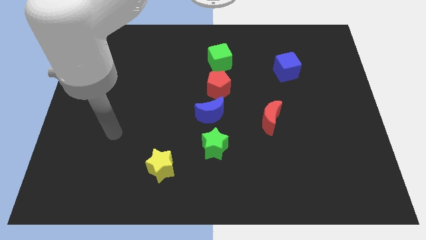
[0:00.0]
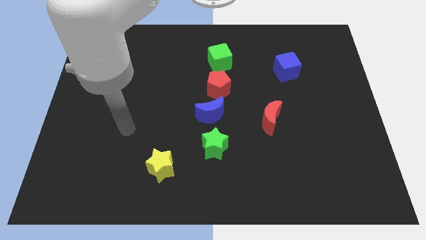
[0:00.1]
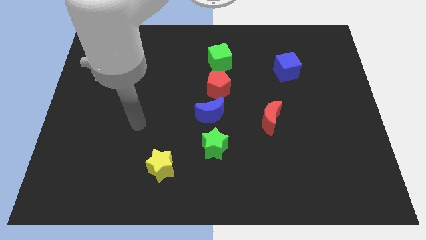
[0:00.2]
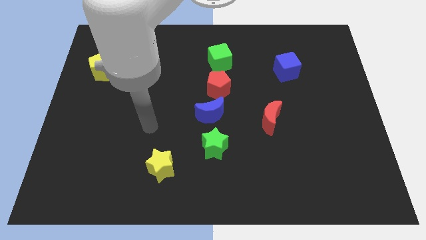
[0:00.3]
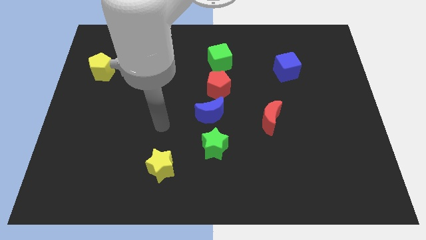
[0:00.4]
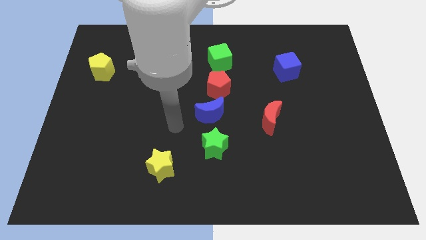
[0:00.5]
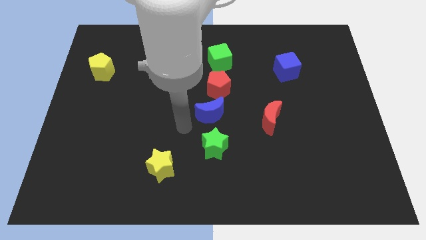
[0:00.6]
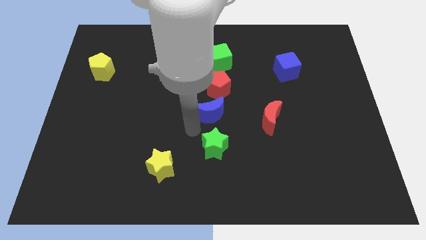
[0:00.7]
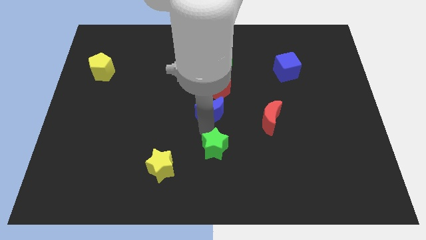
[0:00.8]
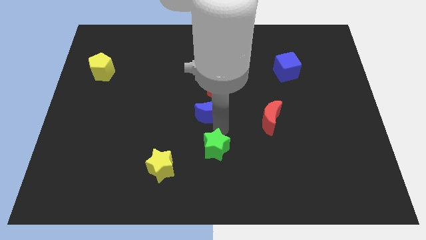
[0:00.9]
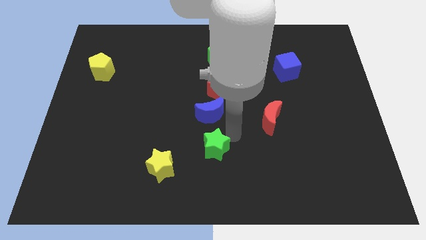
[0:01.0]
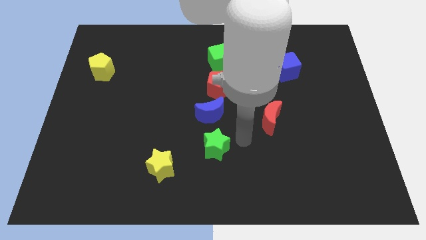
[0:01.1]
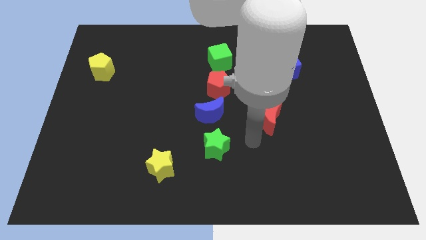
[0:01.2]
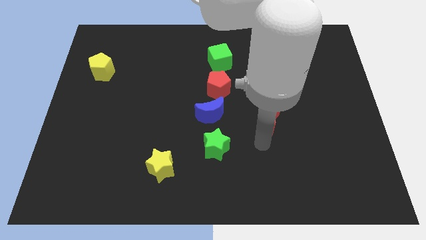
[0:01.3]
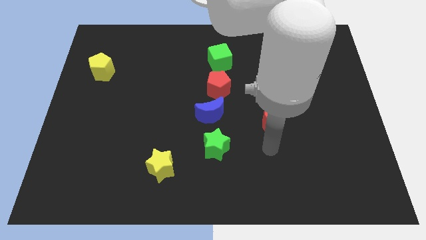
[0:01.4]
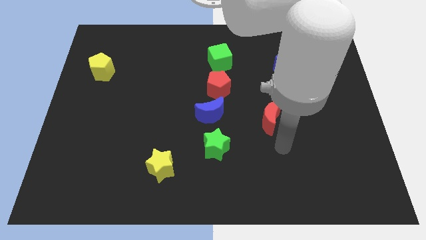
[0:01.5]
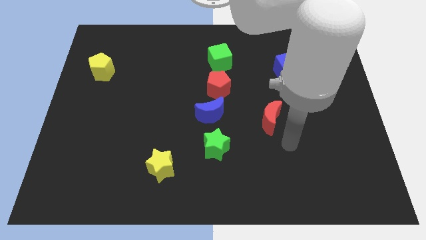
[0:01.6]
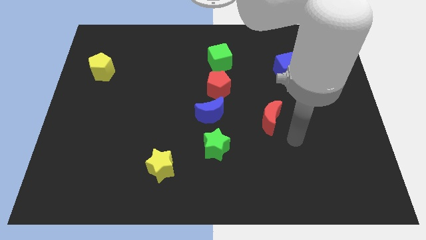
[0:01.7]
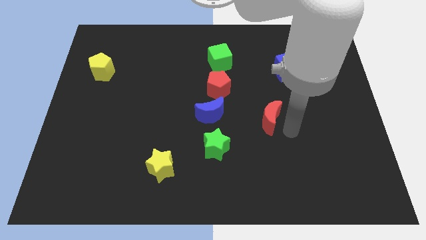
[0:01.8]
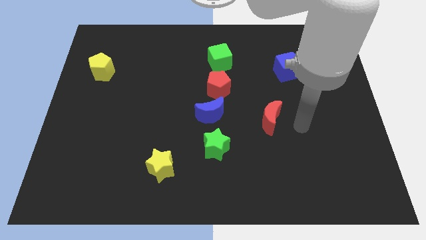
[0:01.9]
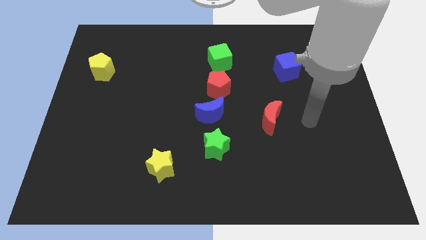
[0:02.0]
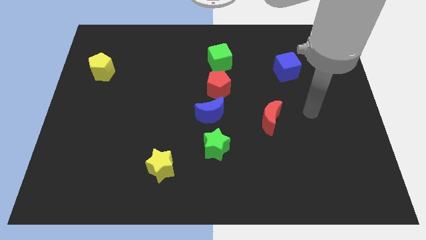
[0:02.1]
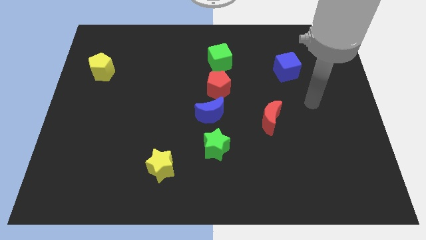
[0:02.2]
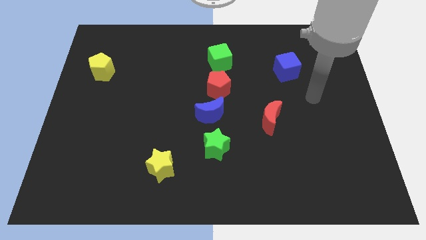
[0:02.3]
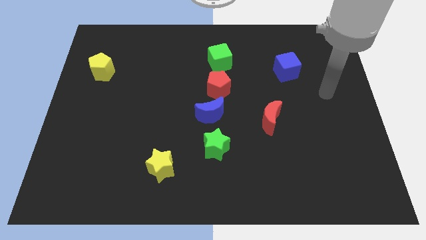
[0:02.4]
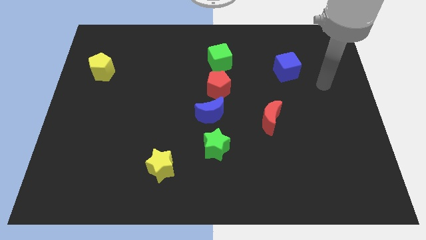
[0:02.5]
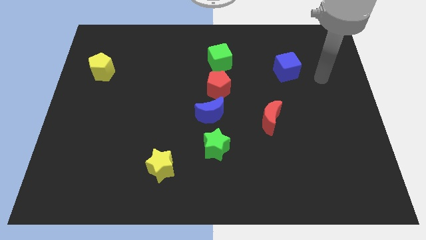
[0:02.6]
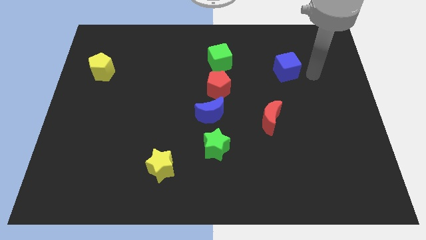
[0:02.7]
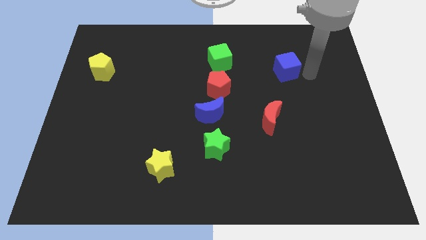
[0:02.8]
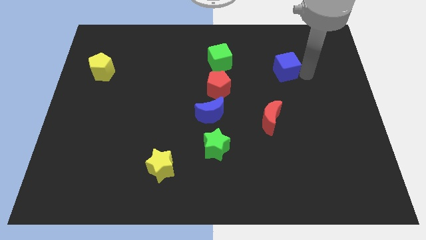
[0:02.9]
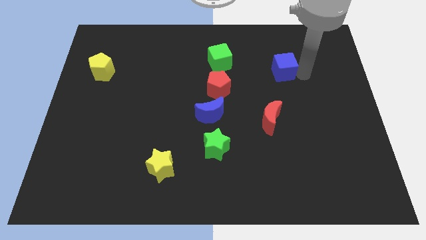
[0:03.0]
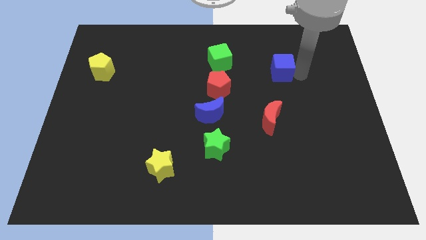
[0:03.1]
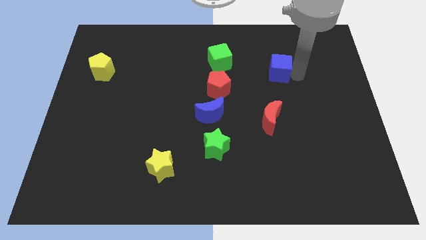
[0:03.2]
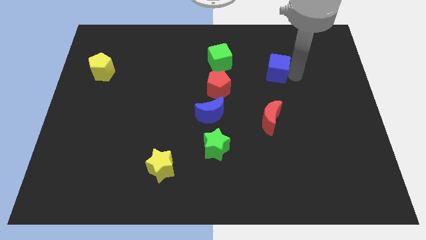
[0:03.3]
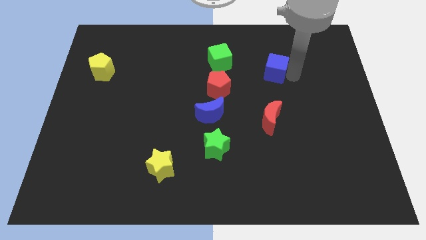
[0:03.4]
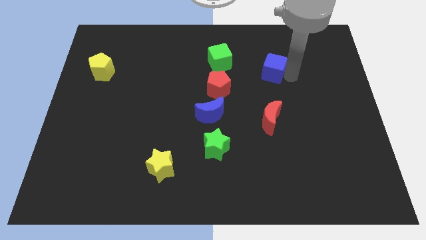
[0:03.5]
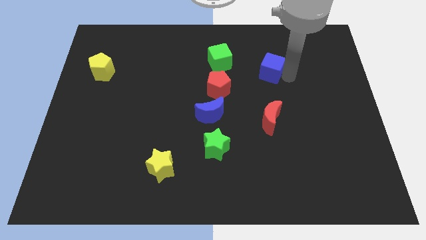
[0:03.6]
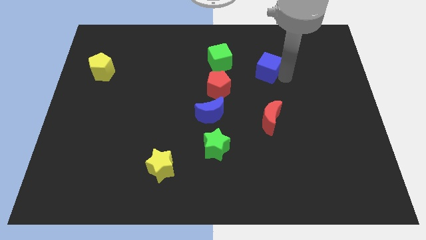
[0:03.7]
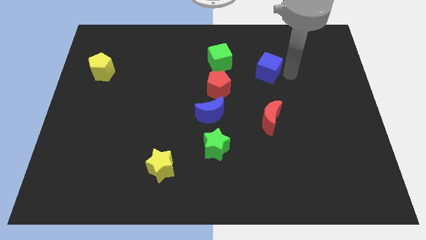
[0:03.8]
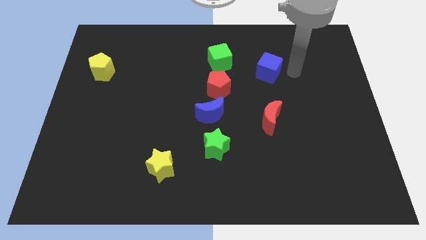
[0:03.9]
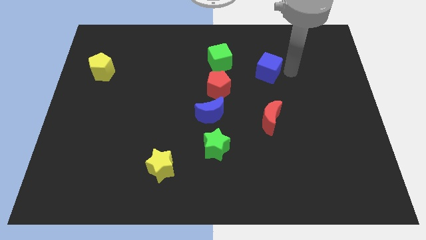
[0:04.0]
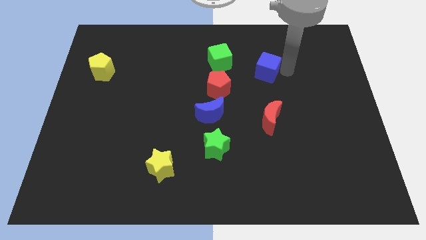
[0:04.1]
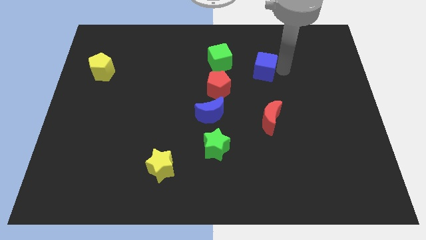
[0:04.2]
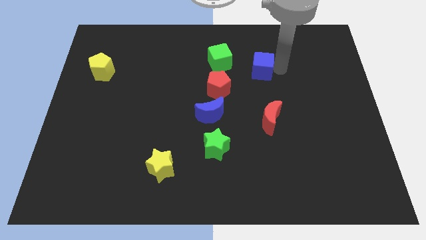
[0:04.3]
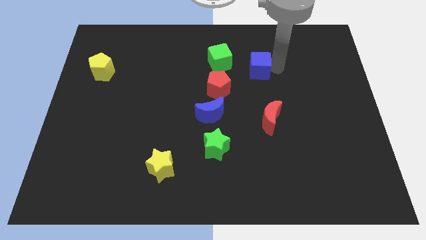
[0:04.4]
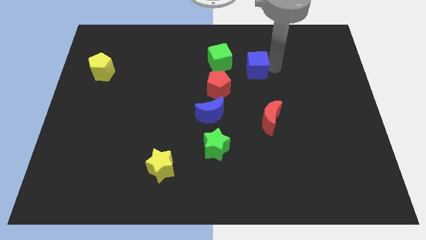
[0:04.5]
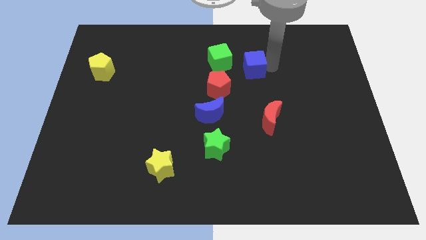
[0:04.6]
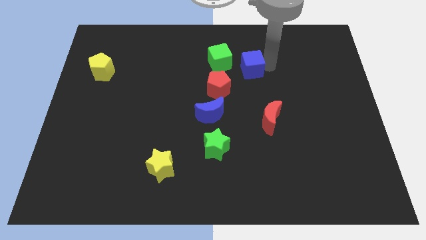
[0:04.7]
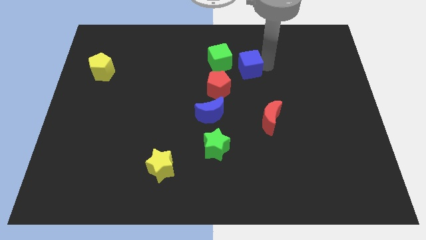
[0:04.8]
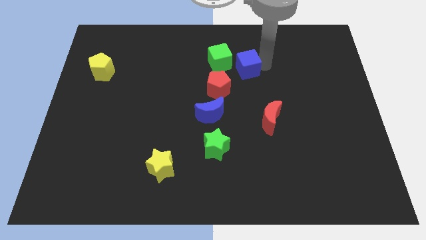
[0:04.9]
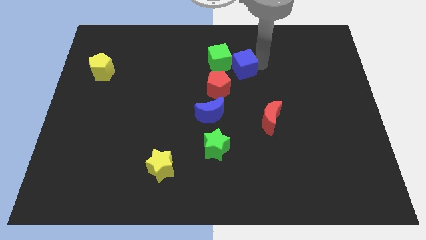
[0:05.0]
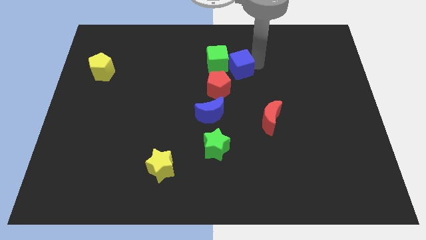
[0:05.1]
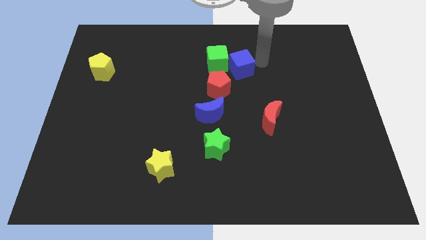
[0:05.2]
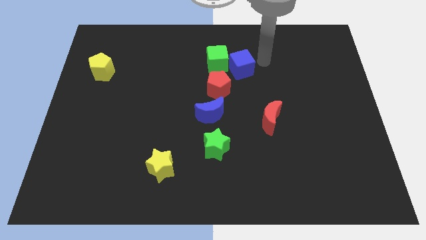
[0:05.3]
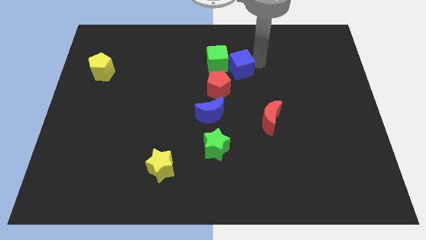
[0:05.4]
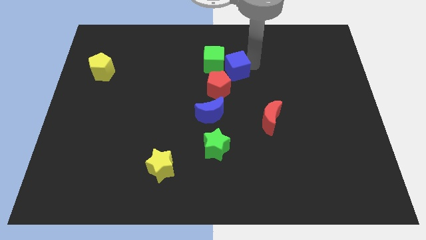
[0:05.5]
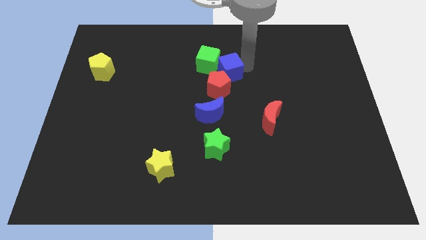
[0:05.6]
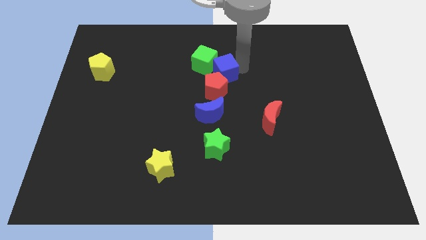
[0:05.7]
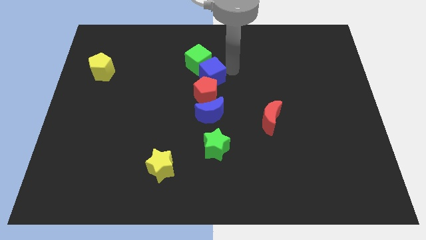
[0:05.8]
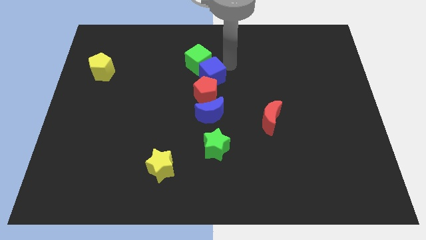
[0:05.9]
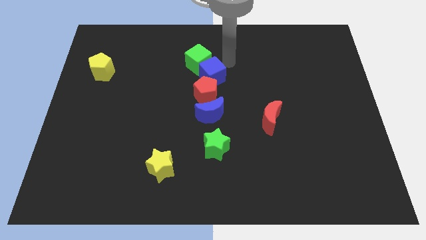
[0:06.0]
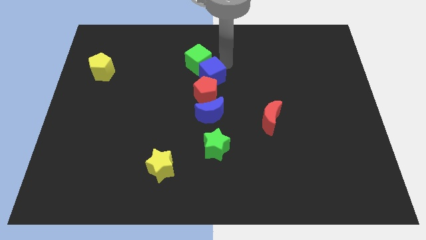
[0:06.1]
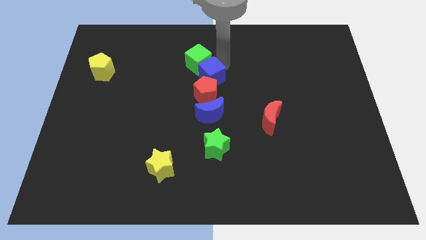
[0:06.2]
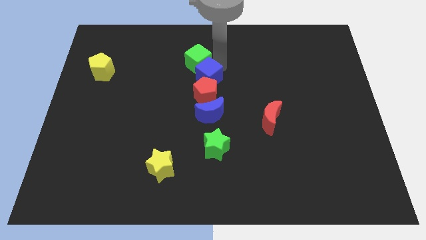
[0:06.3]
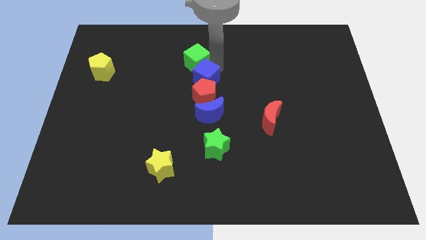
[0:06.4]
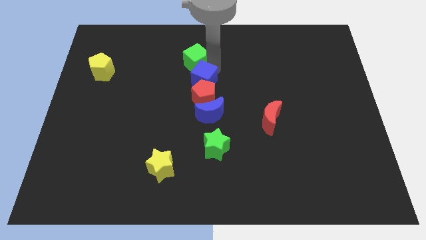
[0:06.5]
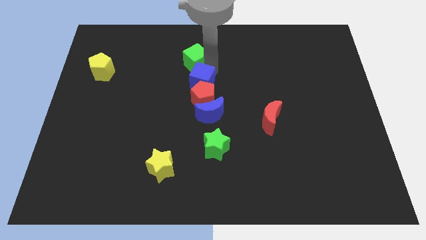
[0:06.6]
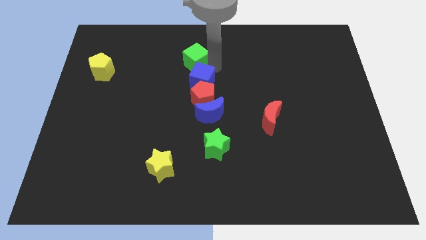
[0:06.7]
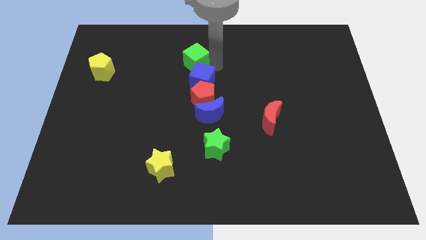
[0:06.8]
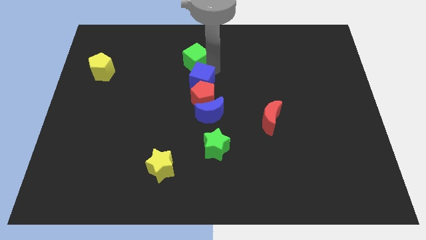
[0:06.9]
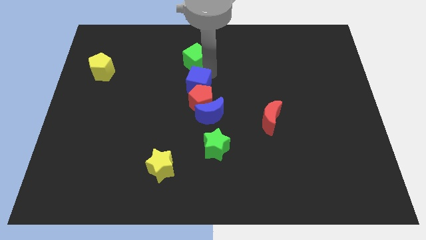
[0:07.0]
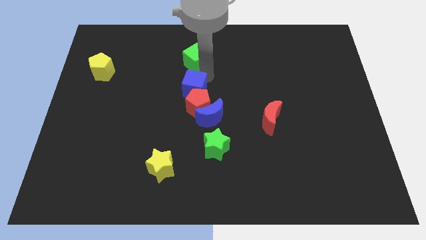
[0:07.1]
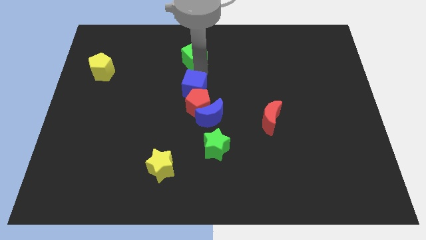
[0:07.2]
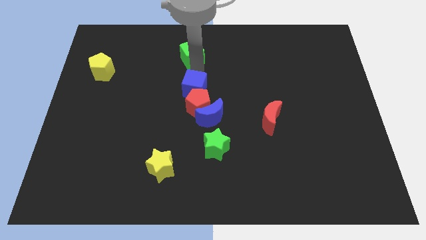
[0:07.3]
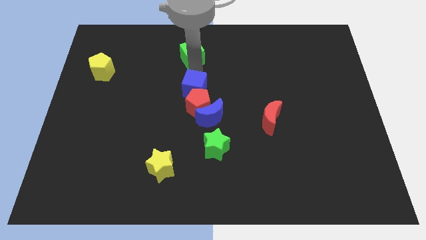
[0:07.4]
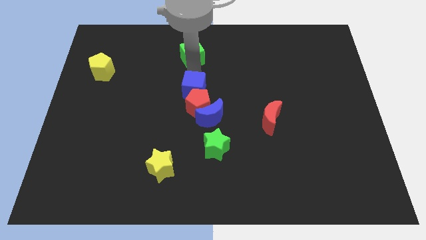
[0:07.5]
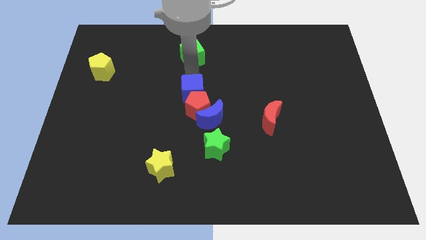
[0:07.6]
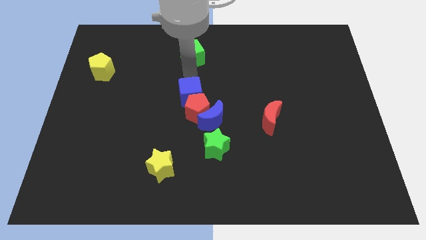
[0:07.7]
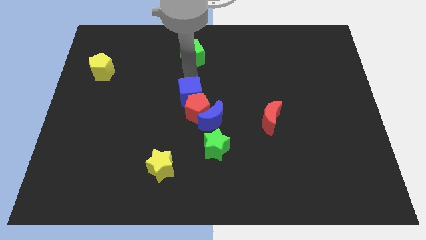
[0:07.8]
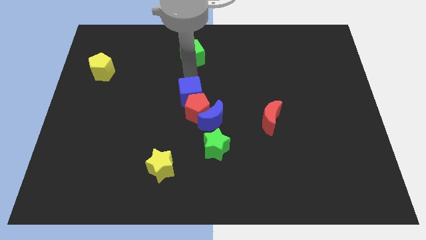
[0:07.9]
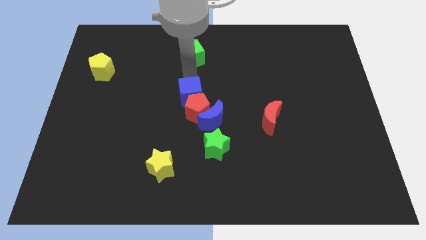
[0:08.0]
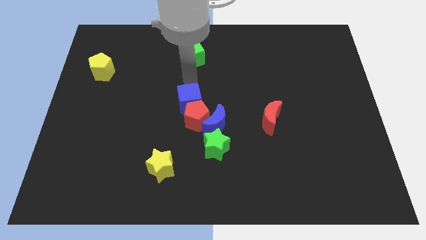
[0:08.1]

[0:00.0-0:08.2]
push the blue cube downwards and to the left diagonally

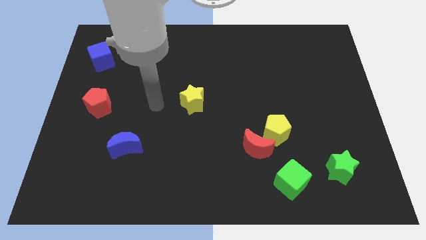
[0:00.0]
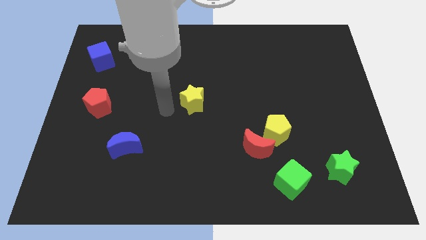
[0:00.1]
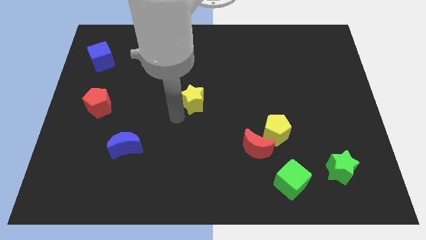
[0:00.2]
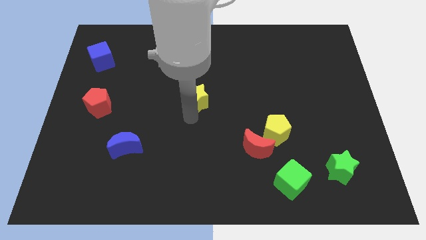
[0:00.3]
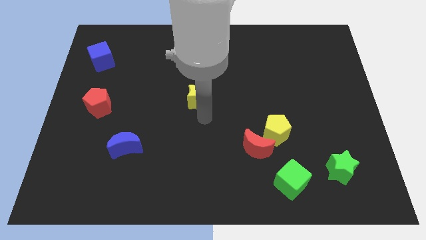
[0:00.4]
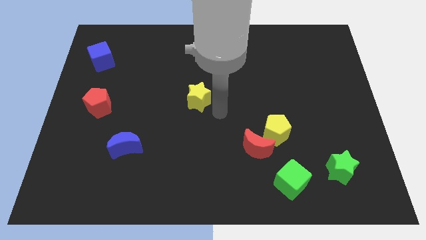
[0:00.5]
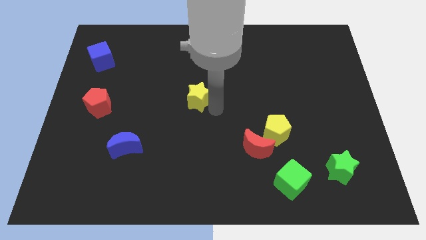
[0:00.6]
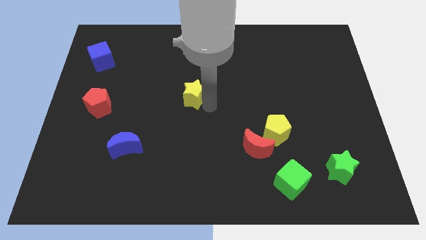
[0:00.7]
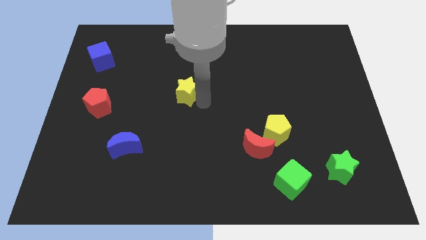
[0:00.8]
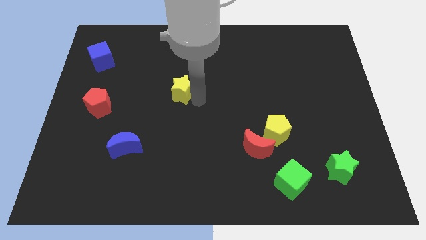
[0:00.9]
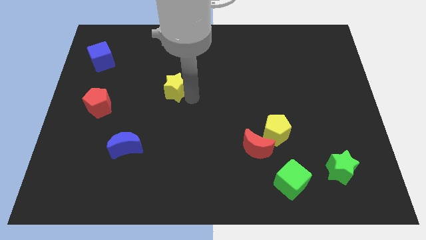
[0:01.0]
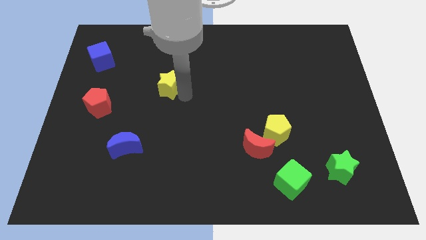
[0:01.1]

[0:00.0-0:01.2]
push the yellow star upwards and to the left slightly
